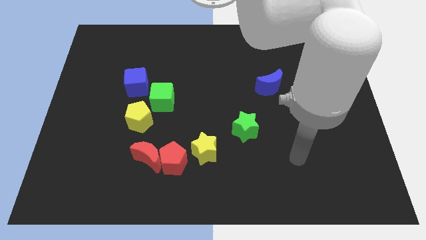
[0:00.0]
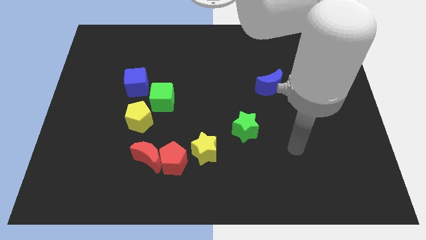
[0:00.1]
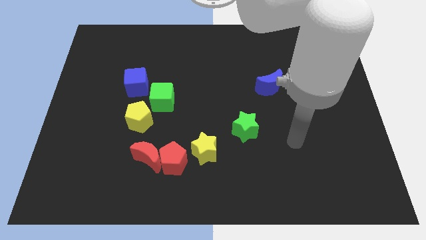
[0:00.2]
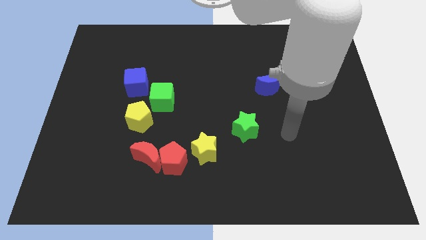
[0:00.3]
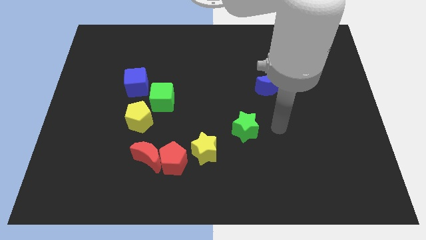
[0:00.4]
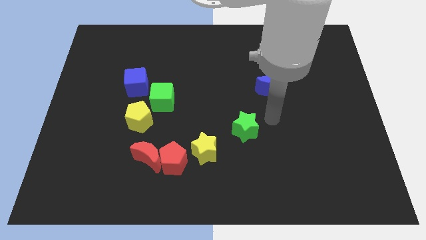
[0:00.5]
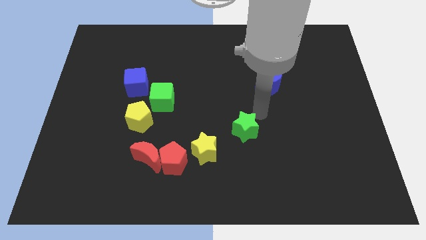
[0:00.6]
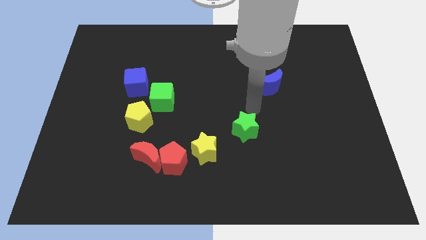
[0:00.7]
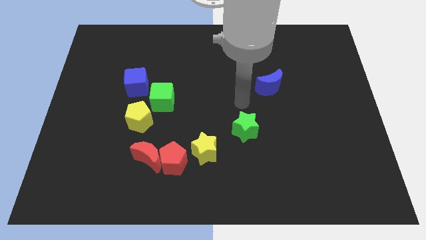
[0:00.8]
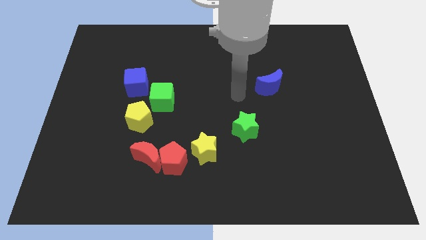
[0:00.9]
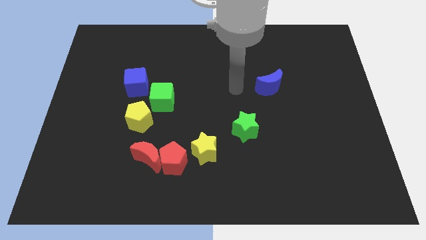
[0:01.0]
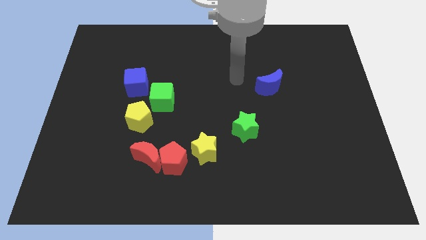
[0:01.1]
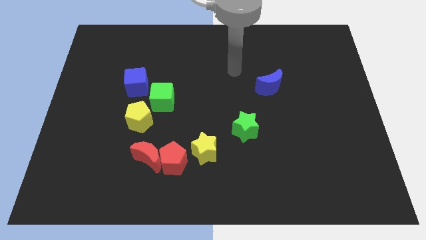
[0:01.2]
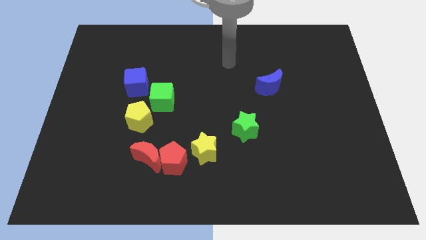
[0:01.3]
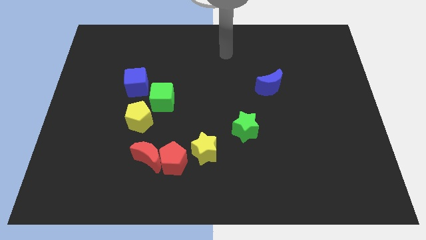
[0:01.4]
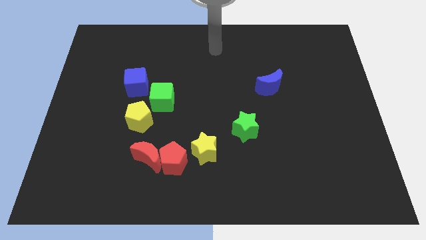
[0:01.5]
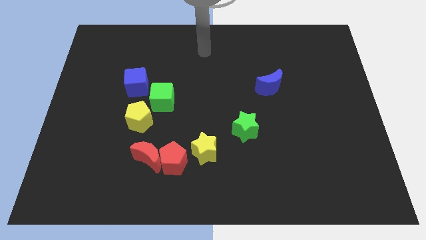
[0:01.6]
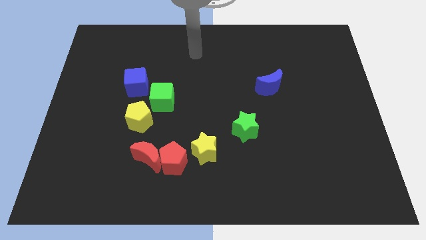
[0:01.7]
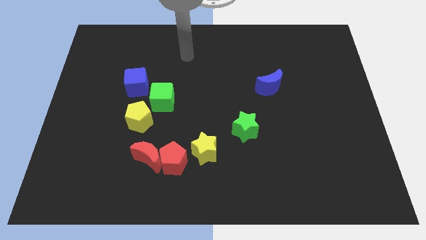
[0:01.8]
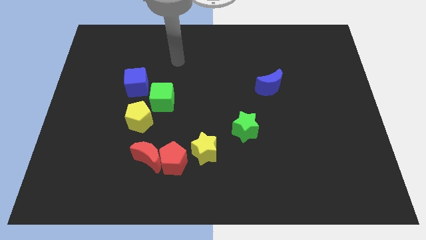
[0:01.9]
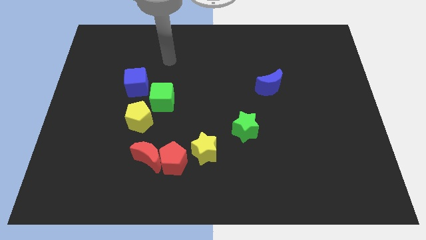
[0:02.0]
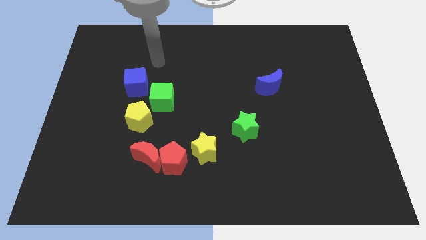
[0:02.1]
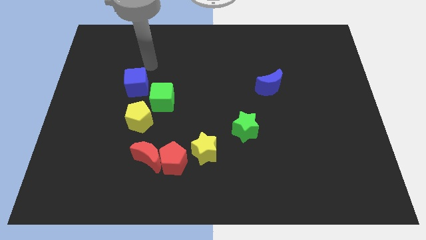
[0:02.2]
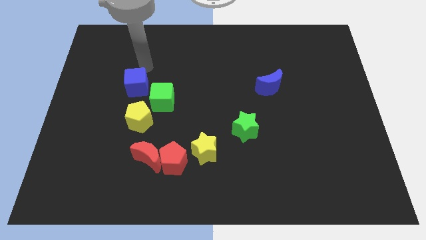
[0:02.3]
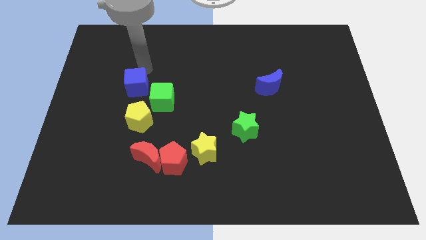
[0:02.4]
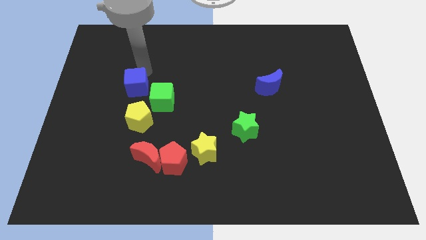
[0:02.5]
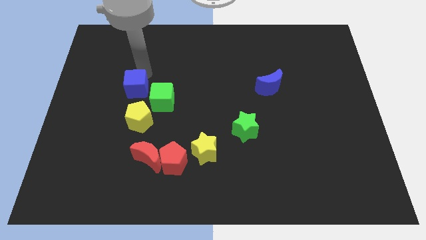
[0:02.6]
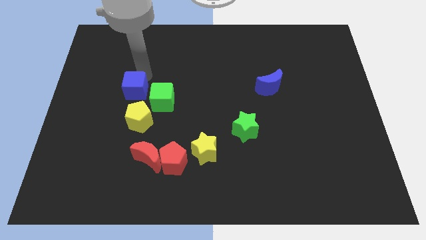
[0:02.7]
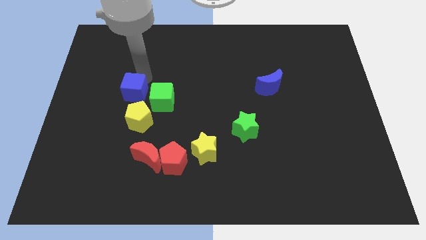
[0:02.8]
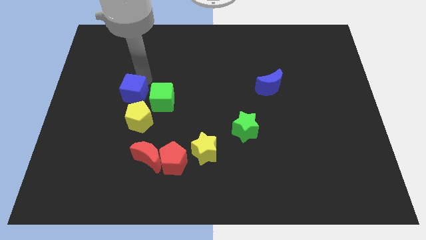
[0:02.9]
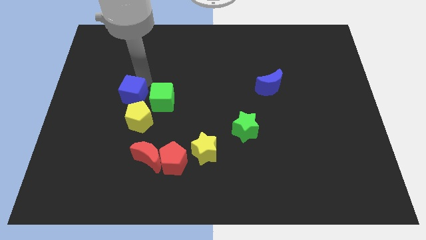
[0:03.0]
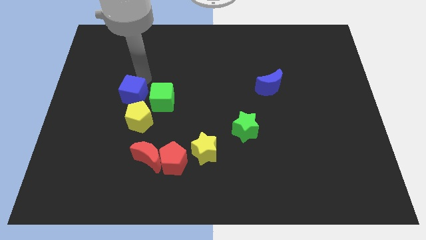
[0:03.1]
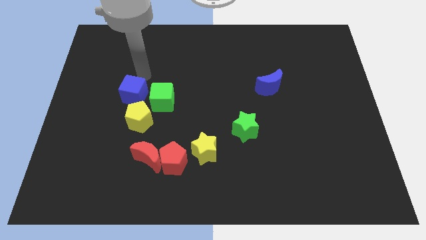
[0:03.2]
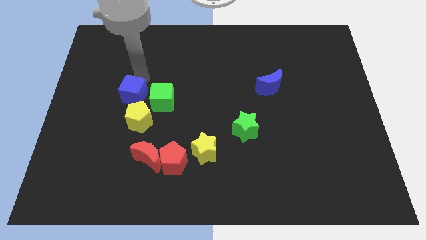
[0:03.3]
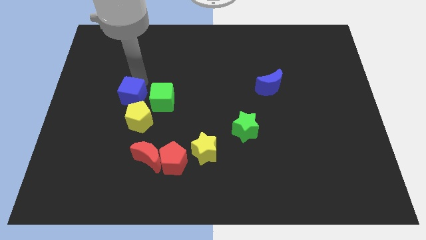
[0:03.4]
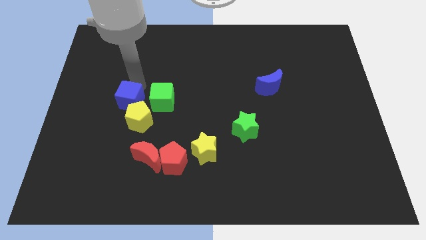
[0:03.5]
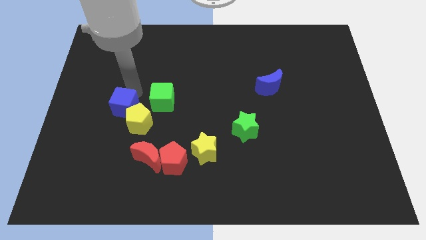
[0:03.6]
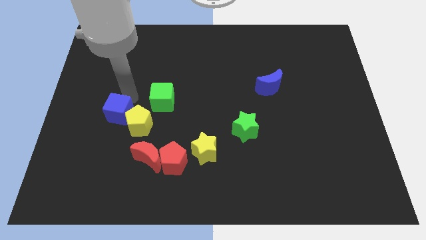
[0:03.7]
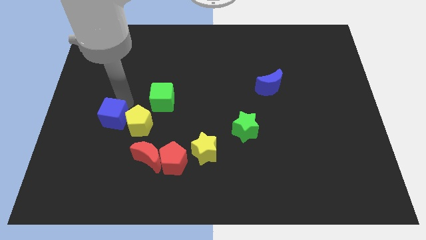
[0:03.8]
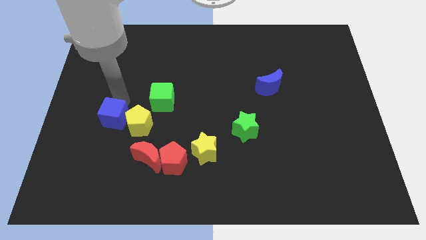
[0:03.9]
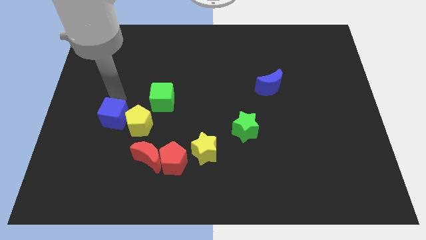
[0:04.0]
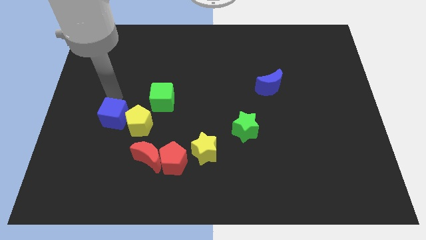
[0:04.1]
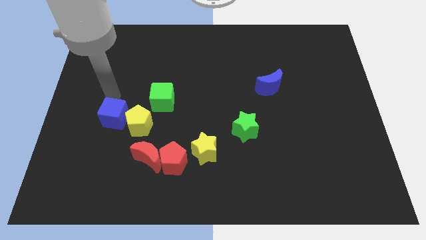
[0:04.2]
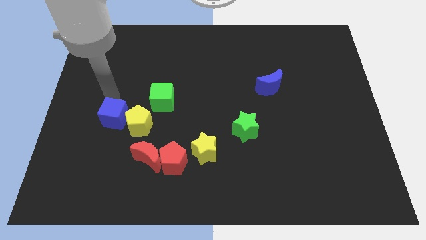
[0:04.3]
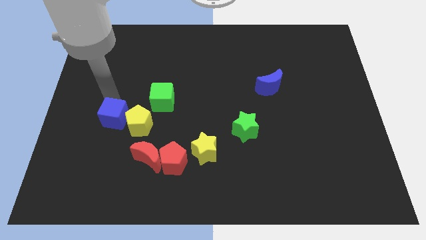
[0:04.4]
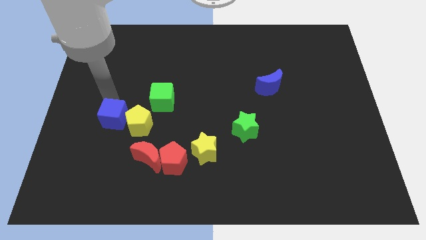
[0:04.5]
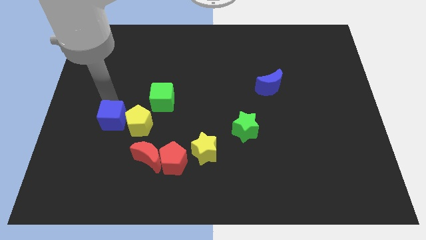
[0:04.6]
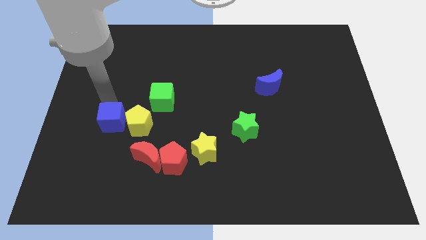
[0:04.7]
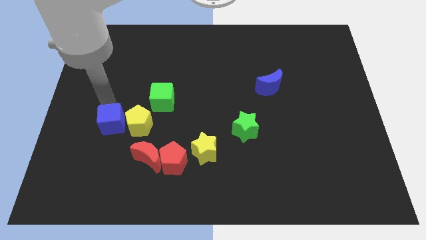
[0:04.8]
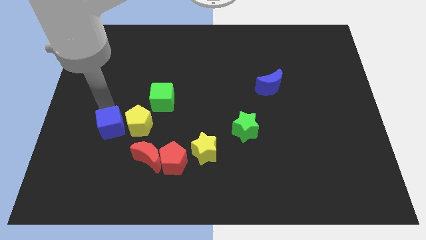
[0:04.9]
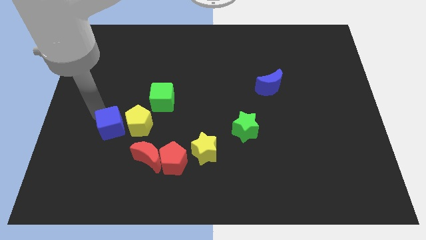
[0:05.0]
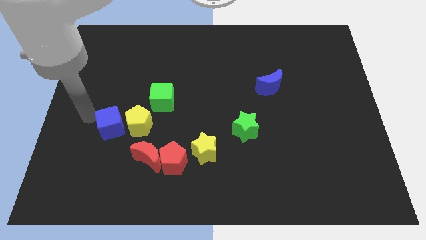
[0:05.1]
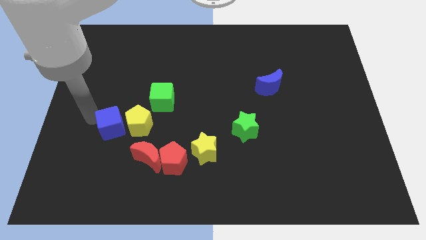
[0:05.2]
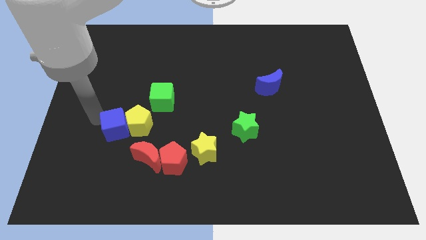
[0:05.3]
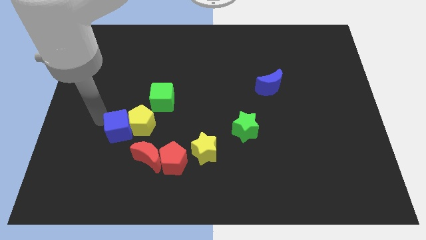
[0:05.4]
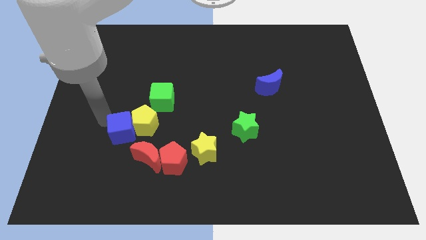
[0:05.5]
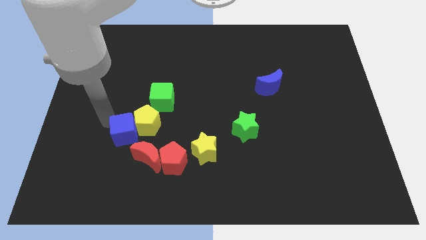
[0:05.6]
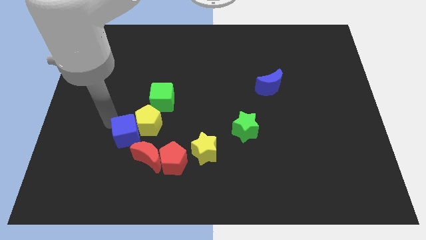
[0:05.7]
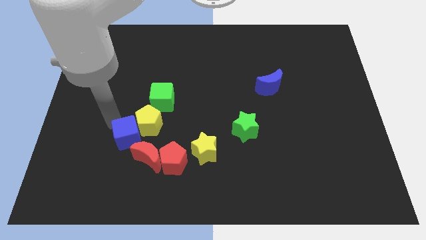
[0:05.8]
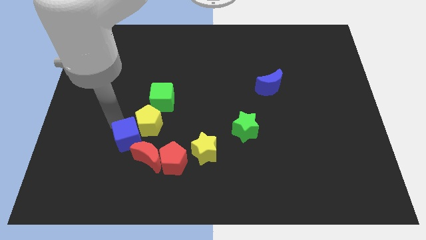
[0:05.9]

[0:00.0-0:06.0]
push the blue cube diagonally up and to the left of the red pentagon

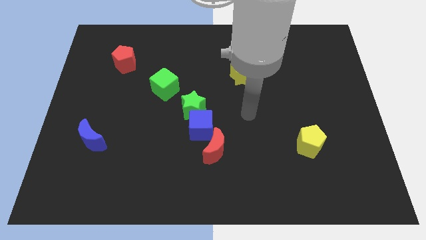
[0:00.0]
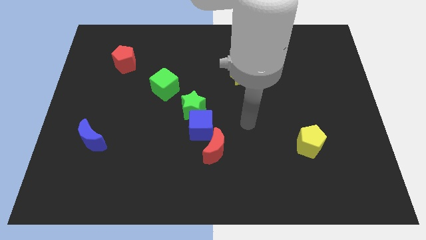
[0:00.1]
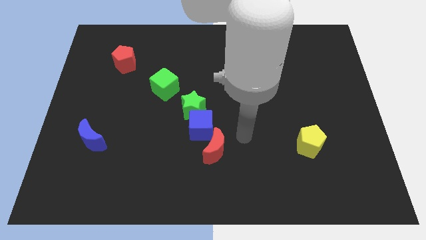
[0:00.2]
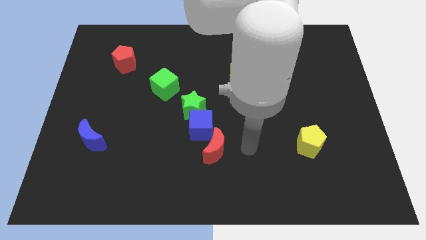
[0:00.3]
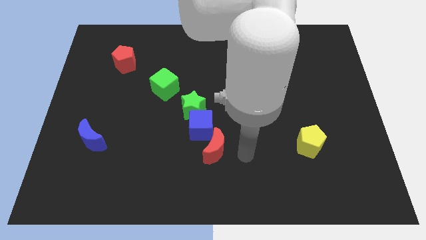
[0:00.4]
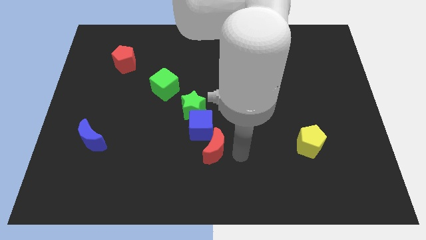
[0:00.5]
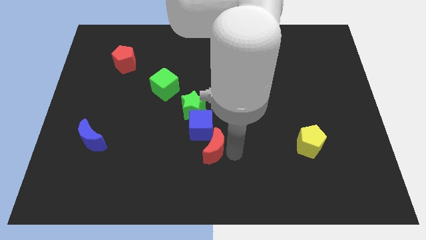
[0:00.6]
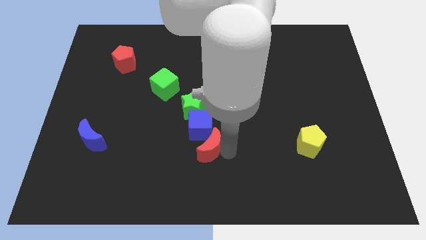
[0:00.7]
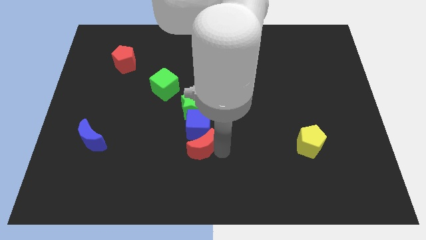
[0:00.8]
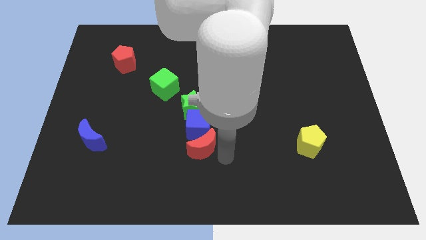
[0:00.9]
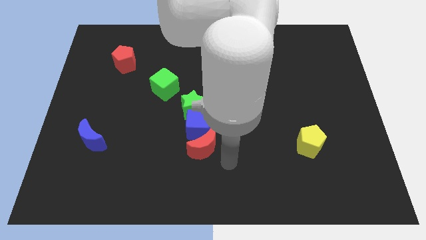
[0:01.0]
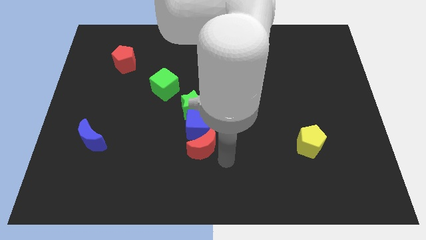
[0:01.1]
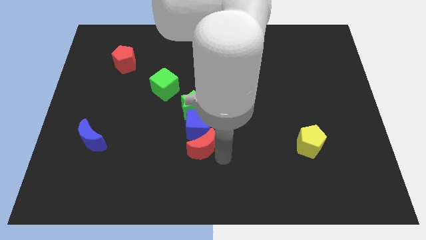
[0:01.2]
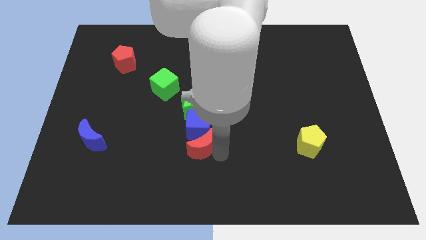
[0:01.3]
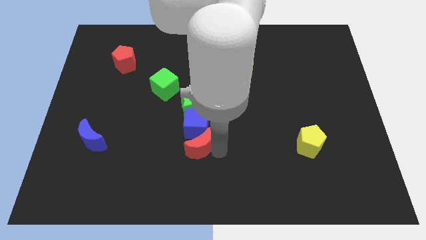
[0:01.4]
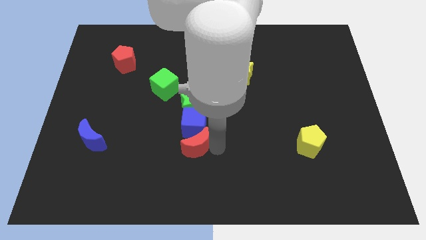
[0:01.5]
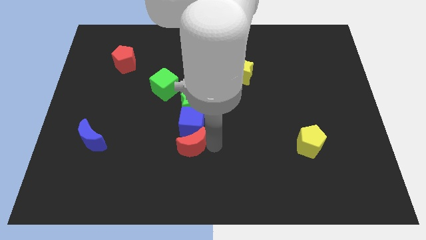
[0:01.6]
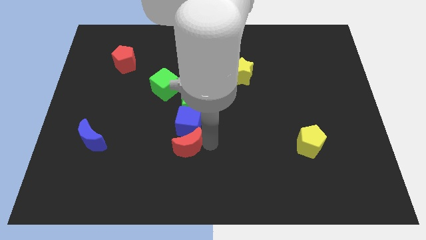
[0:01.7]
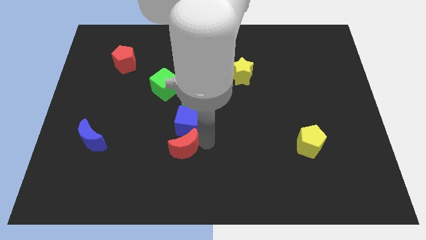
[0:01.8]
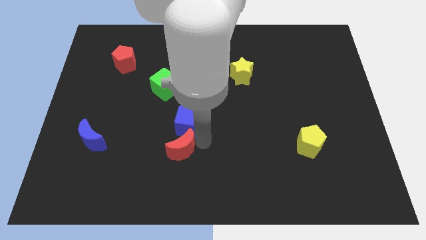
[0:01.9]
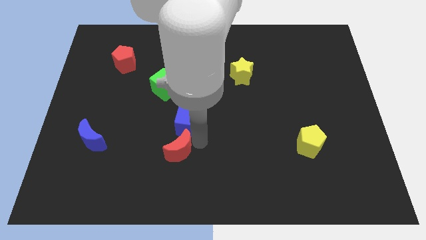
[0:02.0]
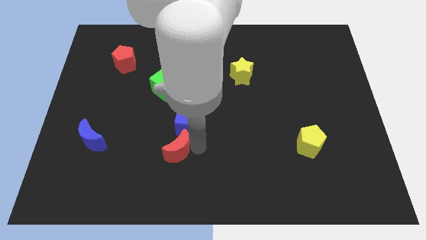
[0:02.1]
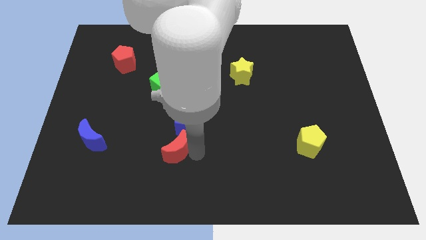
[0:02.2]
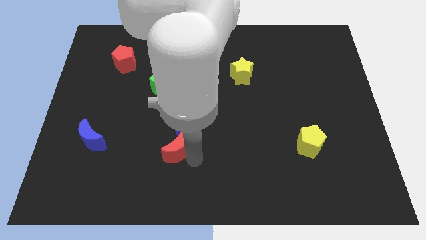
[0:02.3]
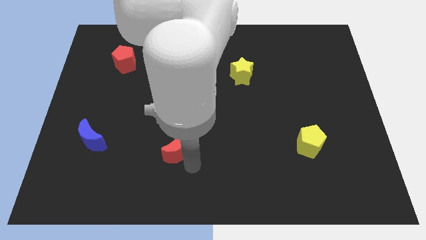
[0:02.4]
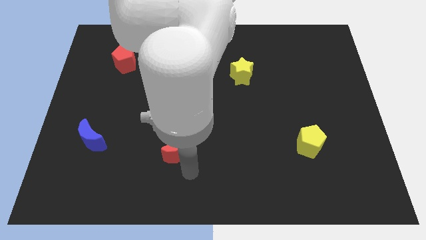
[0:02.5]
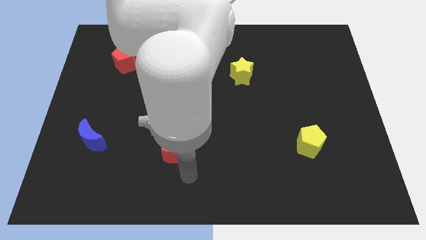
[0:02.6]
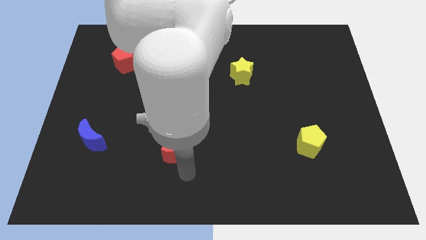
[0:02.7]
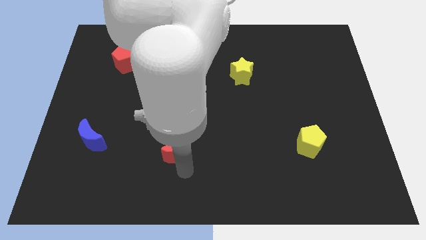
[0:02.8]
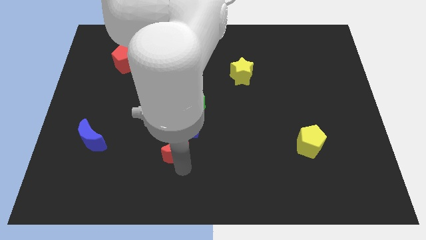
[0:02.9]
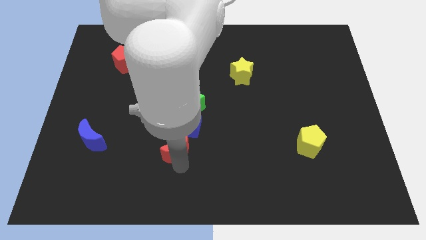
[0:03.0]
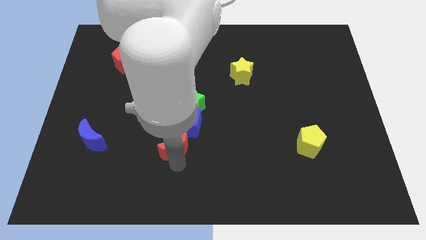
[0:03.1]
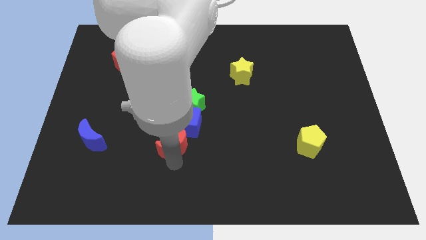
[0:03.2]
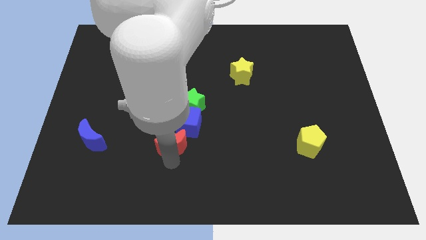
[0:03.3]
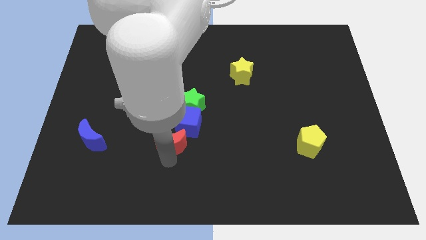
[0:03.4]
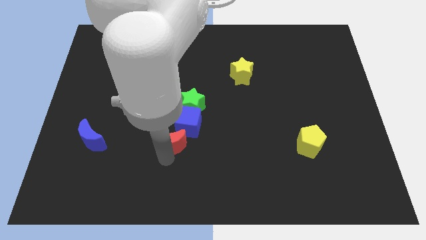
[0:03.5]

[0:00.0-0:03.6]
put the red moon to the bottom left side of the green star
